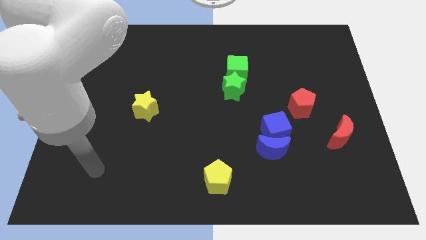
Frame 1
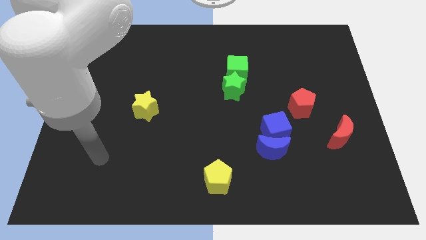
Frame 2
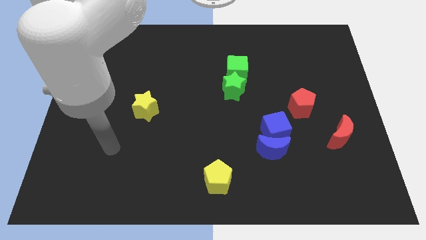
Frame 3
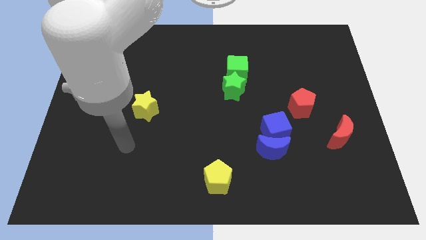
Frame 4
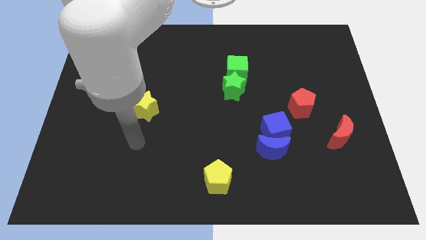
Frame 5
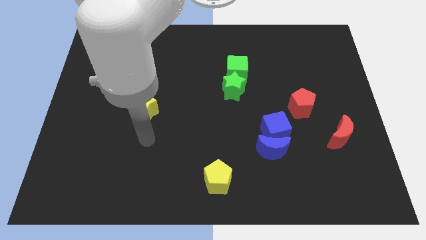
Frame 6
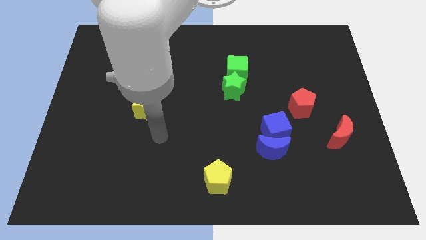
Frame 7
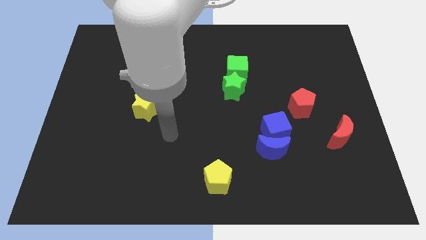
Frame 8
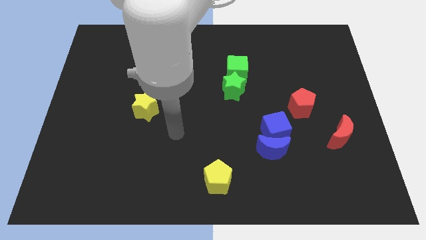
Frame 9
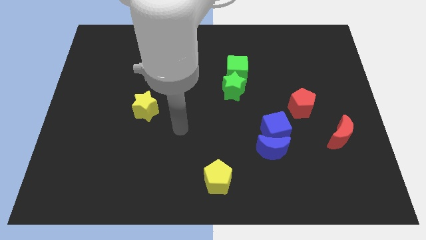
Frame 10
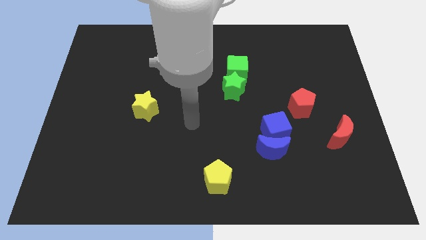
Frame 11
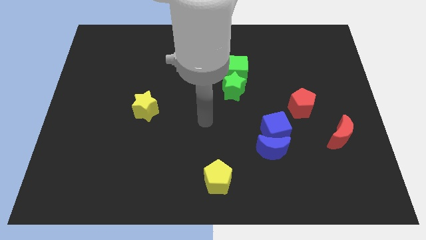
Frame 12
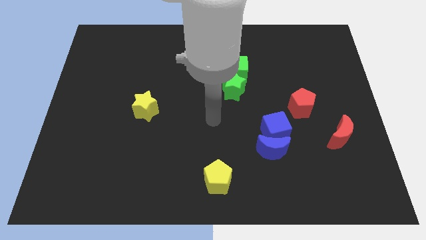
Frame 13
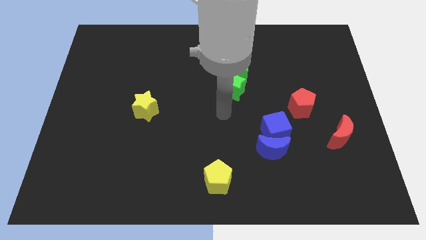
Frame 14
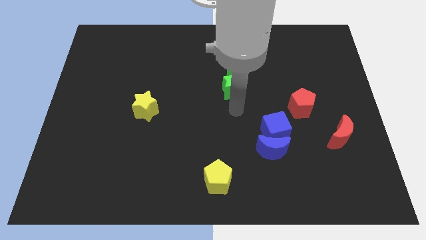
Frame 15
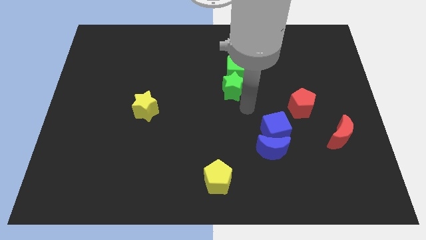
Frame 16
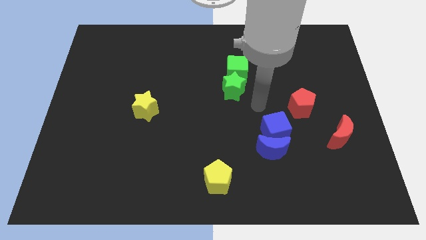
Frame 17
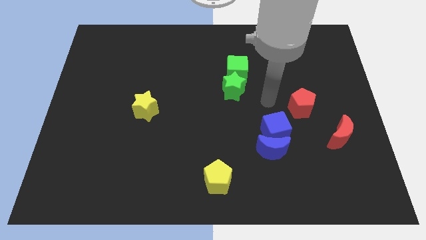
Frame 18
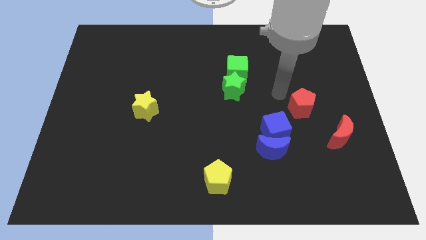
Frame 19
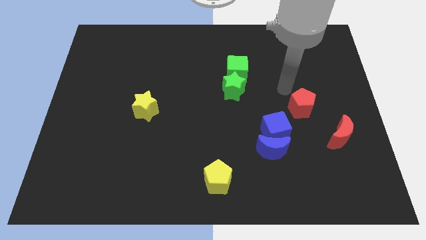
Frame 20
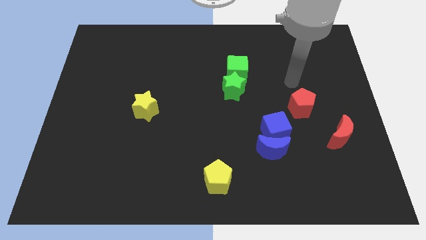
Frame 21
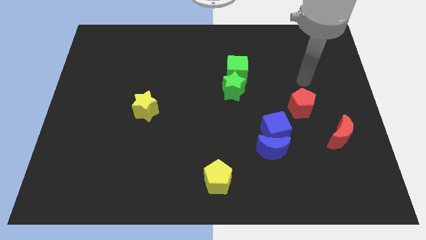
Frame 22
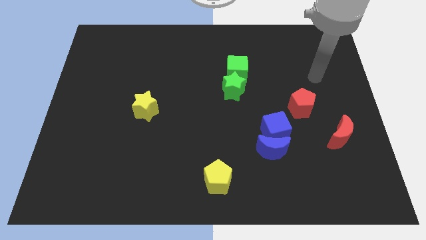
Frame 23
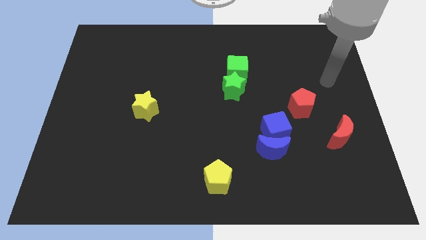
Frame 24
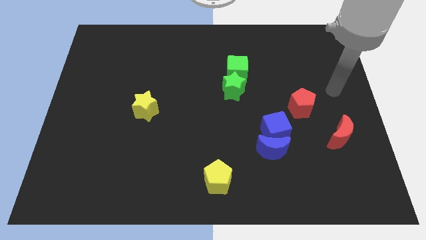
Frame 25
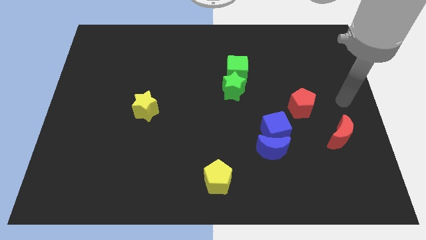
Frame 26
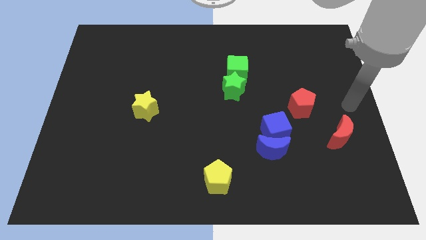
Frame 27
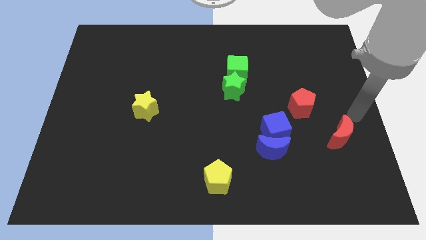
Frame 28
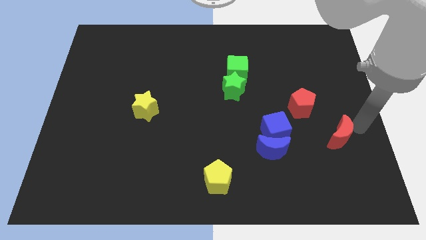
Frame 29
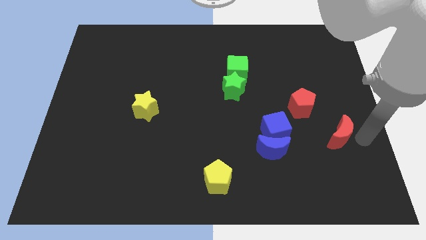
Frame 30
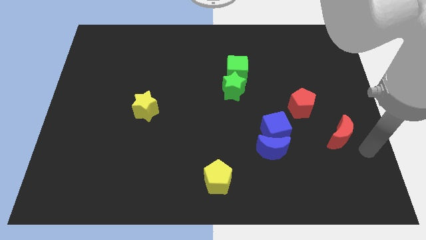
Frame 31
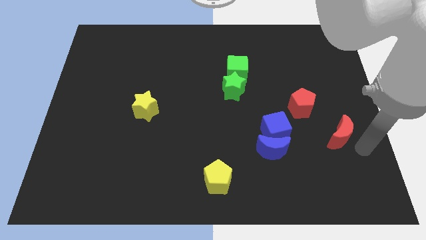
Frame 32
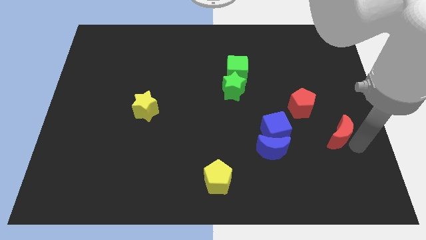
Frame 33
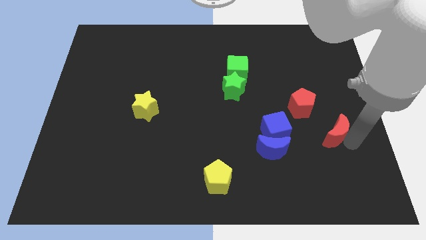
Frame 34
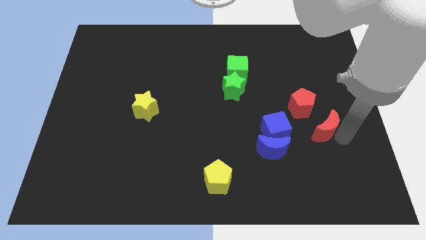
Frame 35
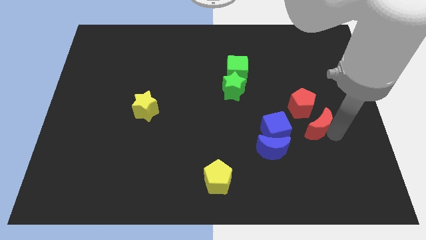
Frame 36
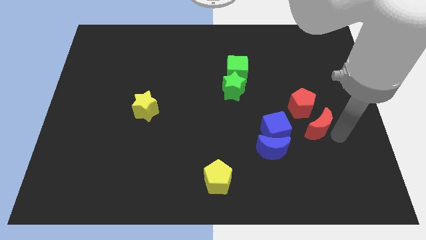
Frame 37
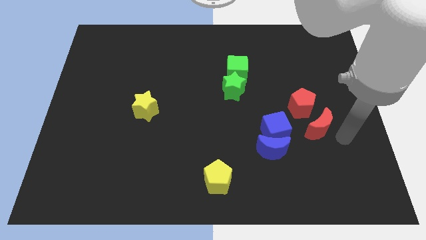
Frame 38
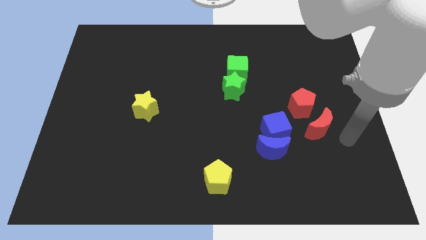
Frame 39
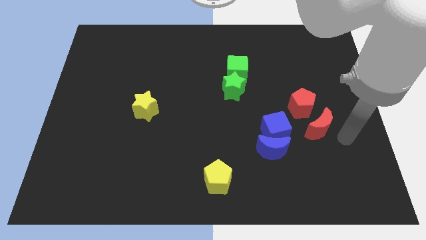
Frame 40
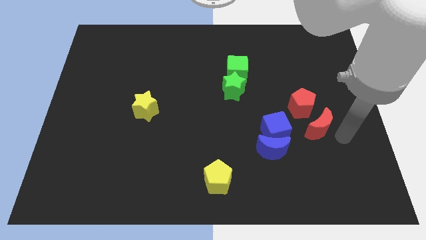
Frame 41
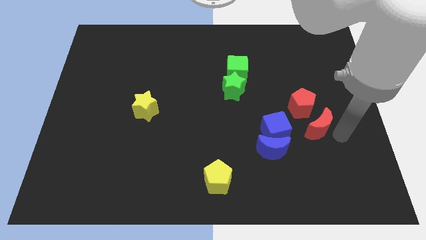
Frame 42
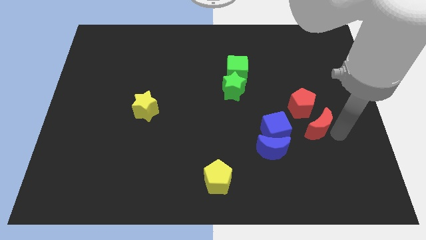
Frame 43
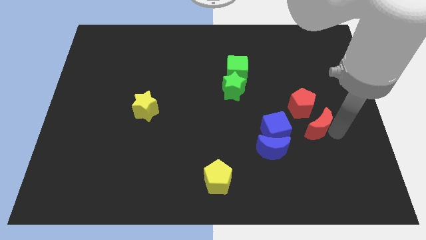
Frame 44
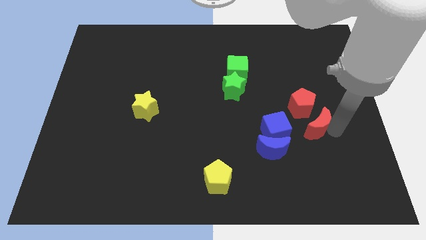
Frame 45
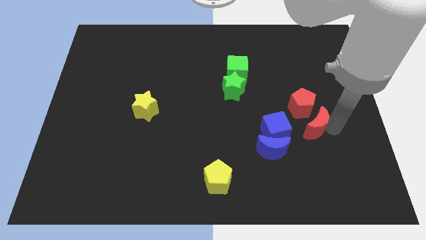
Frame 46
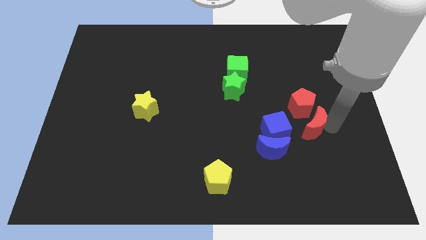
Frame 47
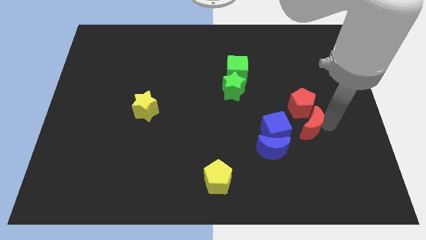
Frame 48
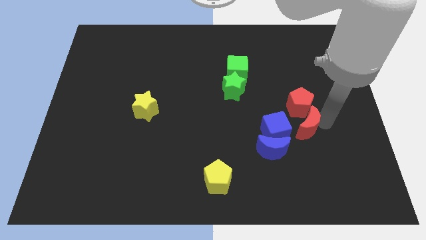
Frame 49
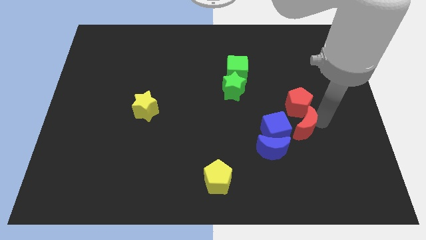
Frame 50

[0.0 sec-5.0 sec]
slide the red moon to the left somewhat

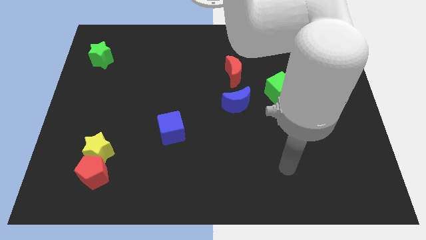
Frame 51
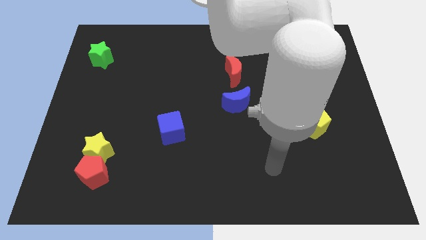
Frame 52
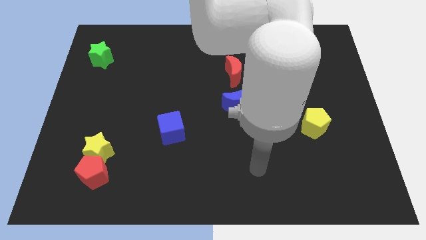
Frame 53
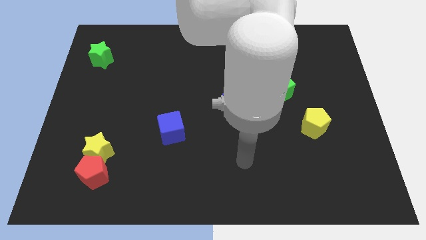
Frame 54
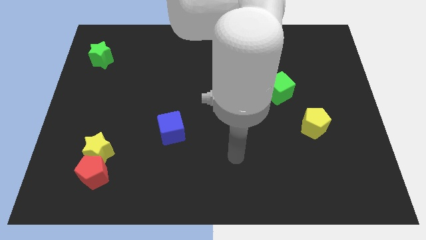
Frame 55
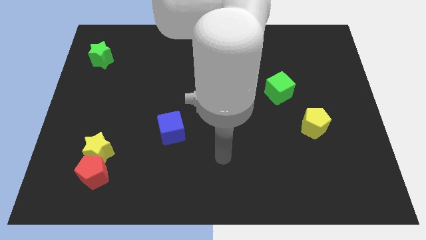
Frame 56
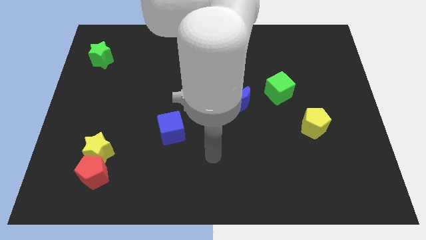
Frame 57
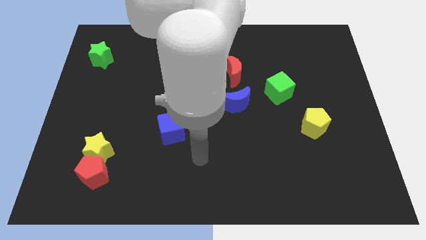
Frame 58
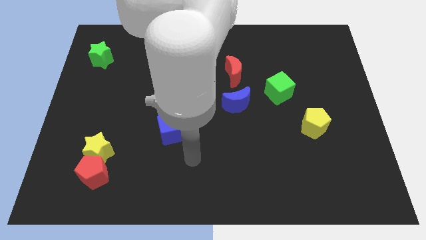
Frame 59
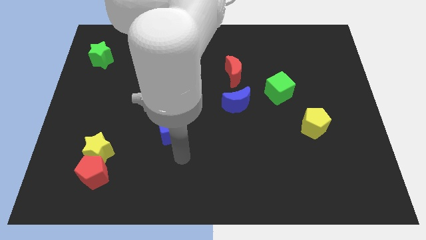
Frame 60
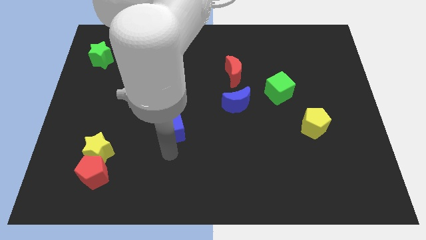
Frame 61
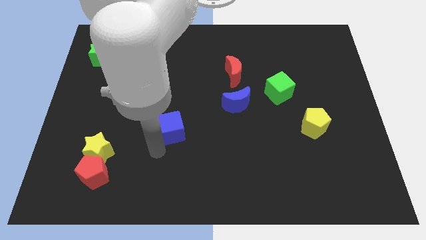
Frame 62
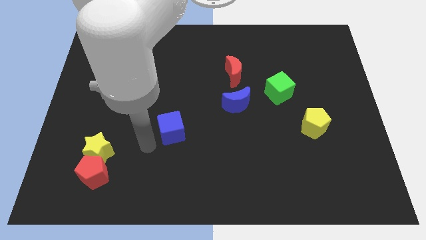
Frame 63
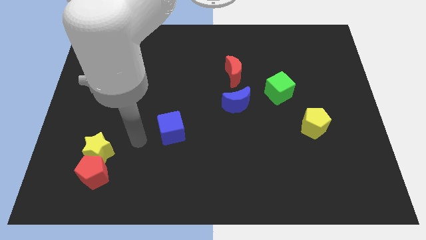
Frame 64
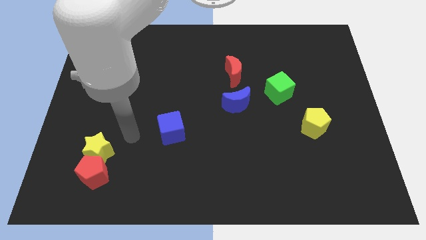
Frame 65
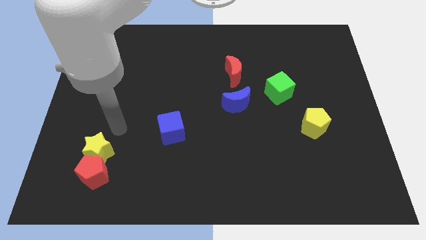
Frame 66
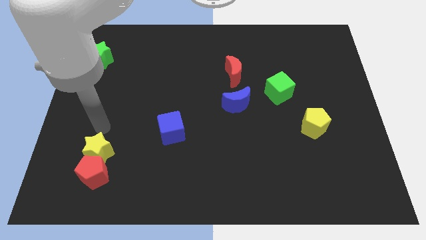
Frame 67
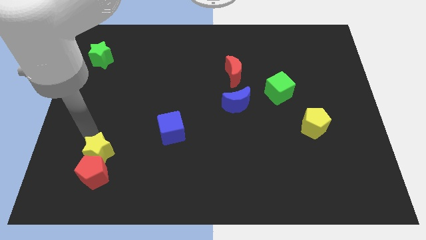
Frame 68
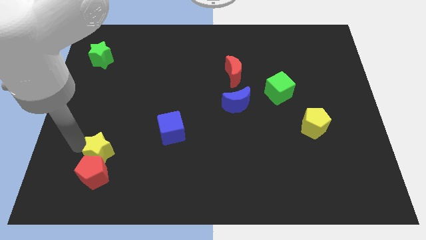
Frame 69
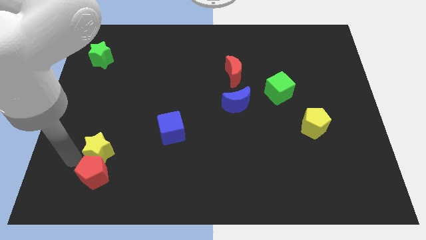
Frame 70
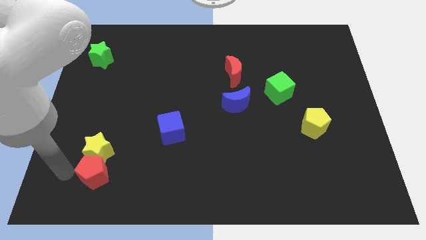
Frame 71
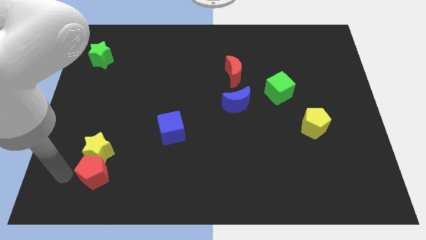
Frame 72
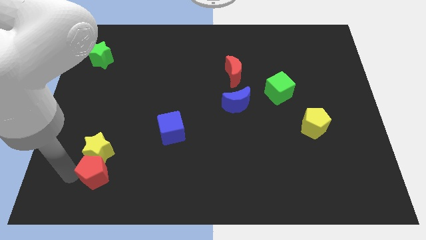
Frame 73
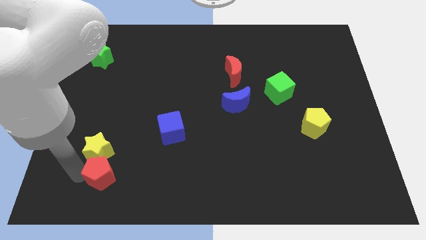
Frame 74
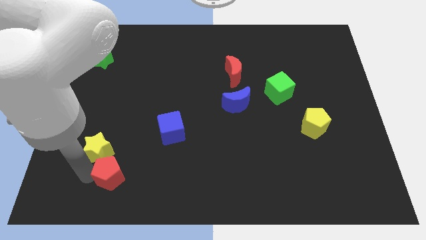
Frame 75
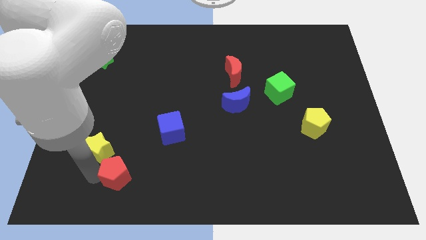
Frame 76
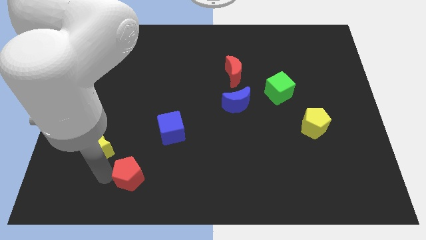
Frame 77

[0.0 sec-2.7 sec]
slightly slide the red pentagon right

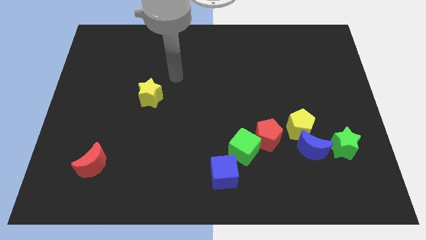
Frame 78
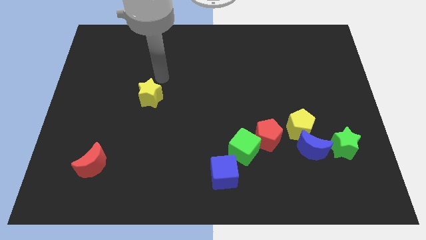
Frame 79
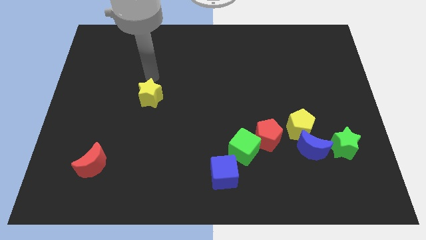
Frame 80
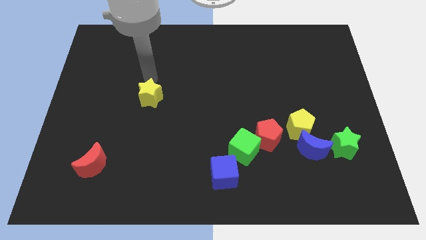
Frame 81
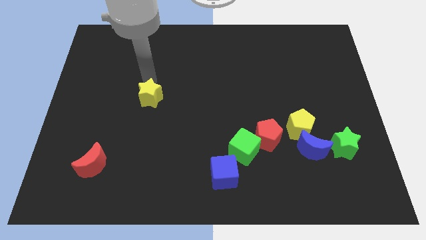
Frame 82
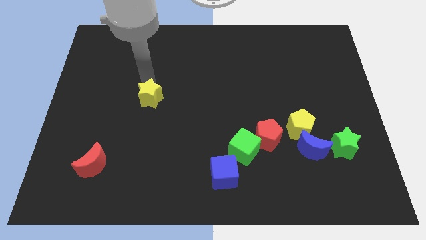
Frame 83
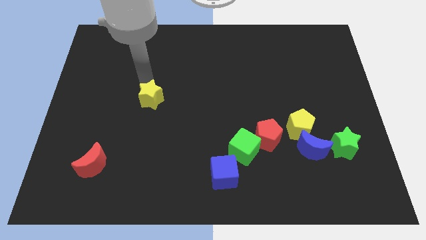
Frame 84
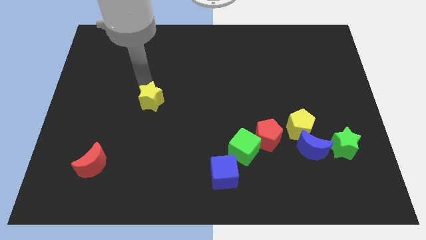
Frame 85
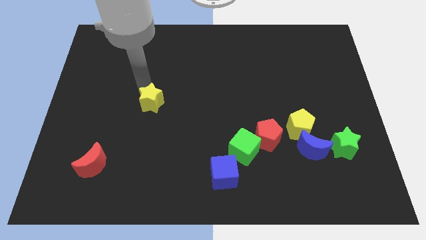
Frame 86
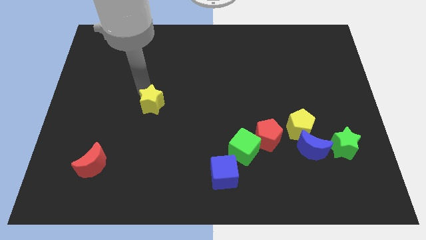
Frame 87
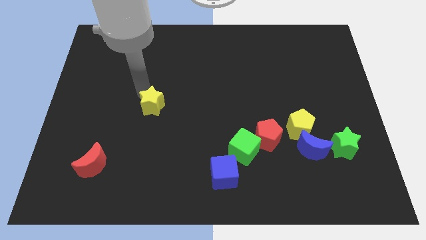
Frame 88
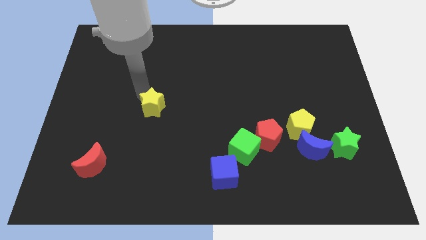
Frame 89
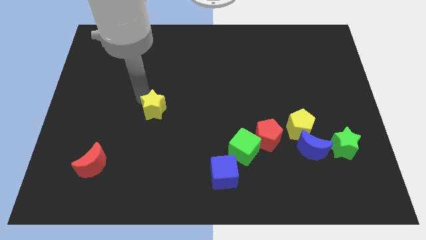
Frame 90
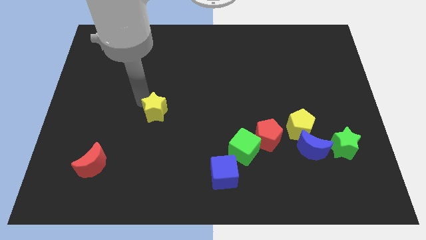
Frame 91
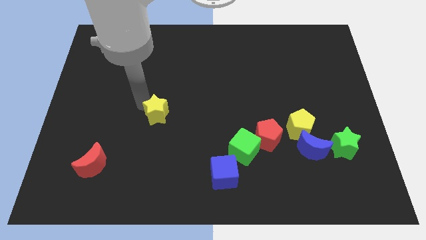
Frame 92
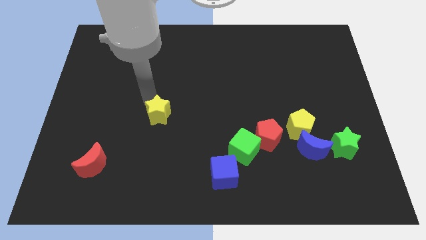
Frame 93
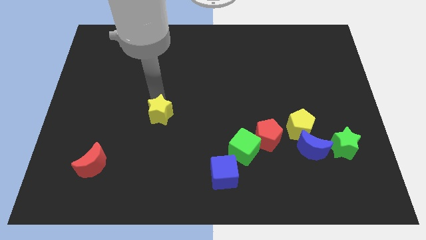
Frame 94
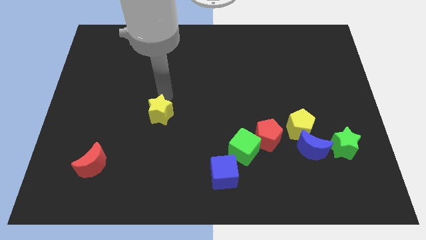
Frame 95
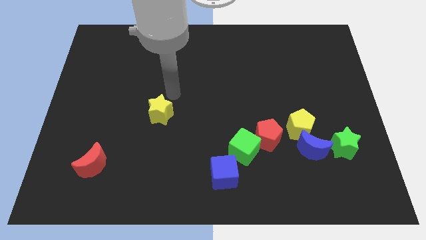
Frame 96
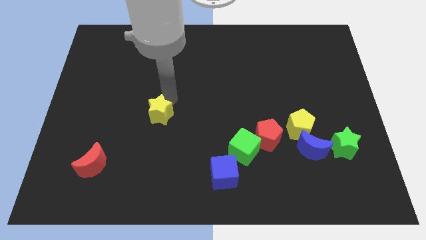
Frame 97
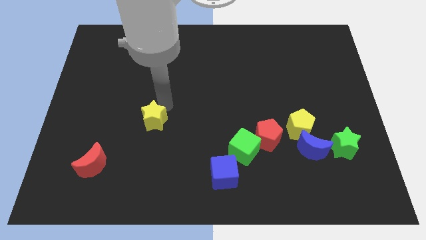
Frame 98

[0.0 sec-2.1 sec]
slightly move the yellow star downwards
